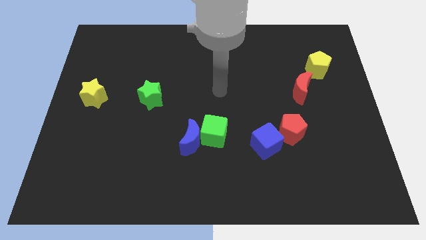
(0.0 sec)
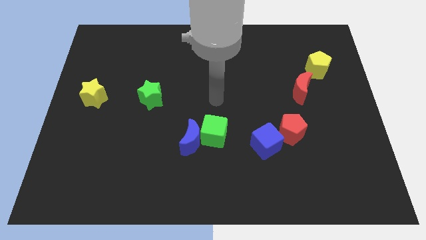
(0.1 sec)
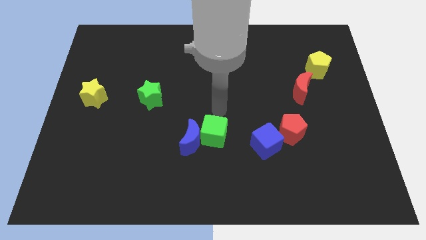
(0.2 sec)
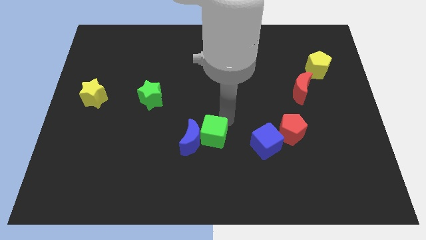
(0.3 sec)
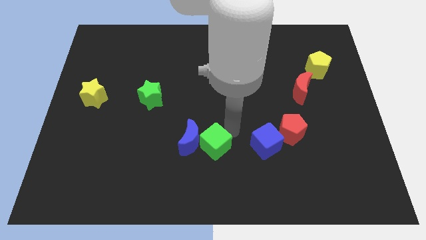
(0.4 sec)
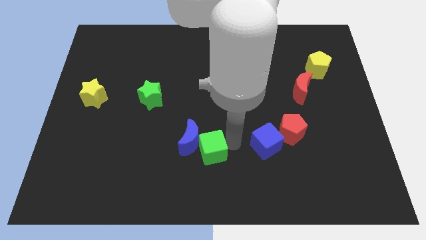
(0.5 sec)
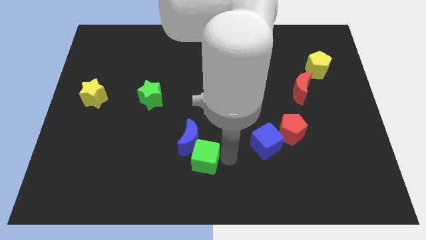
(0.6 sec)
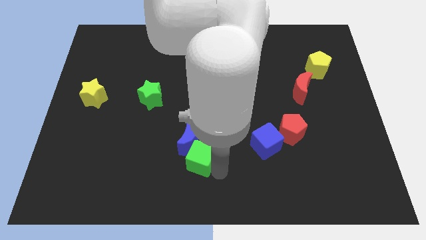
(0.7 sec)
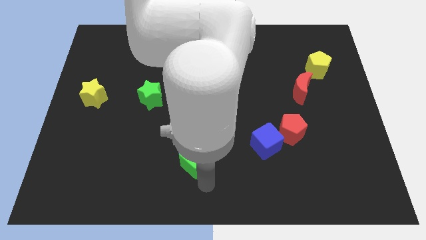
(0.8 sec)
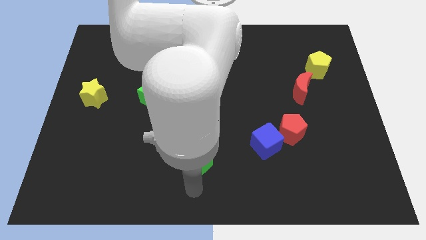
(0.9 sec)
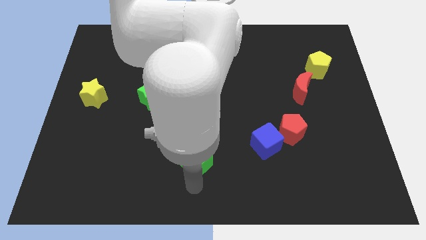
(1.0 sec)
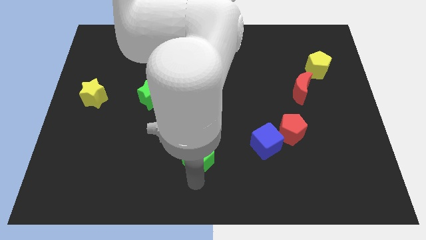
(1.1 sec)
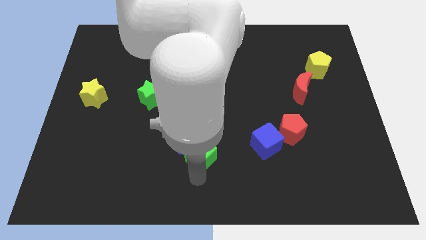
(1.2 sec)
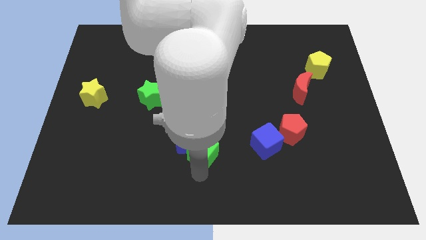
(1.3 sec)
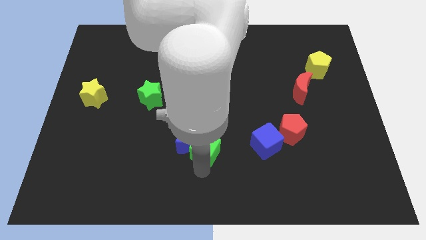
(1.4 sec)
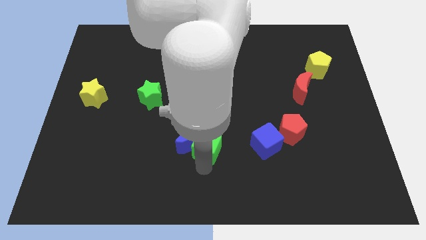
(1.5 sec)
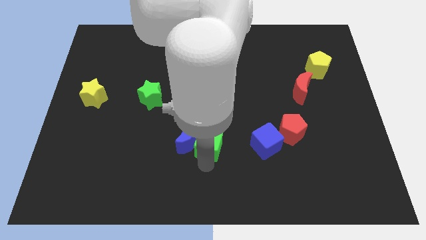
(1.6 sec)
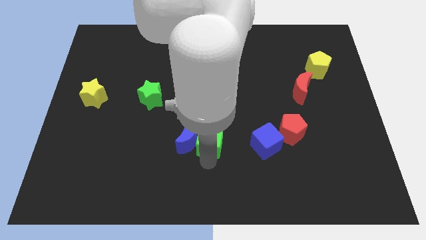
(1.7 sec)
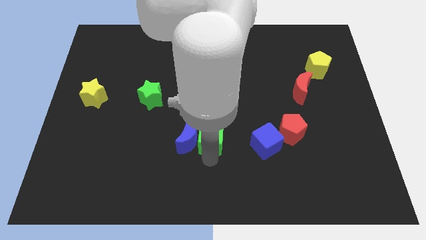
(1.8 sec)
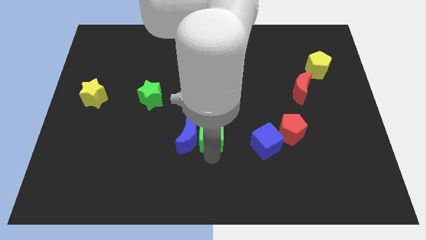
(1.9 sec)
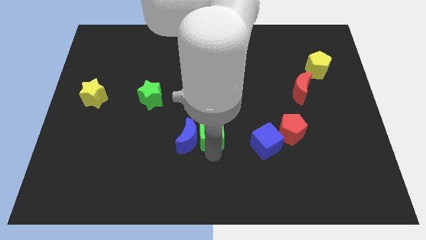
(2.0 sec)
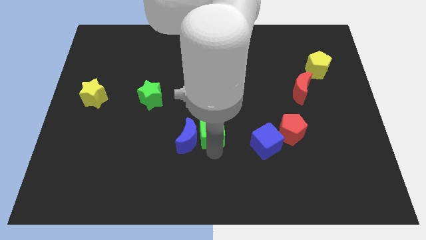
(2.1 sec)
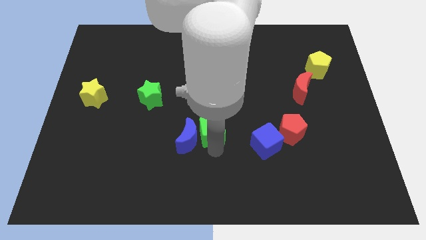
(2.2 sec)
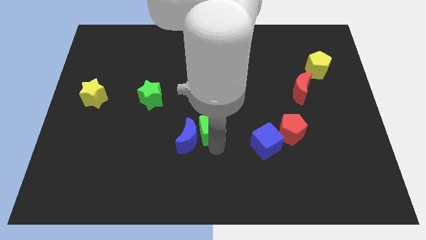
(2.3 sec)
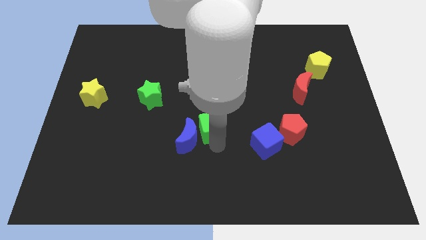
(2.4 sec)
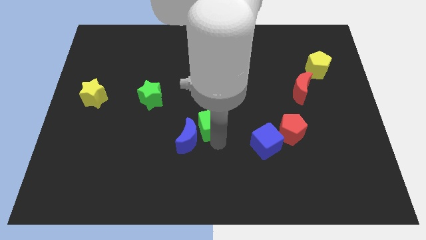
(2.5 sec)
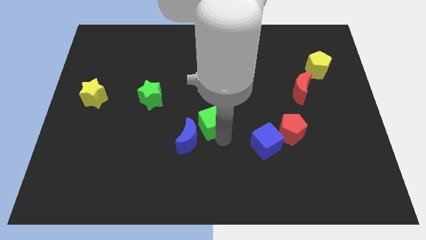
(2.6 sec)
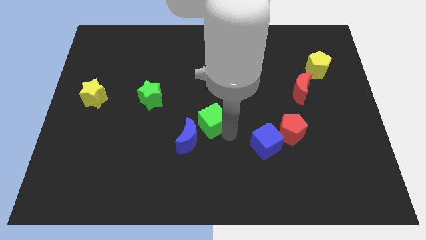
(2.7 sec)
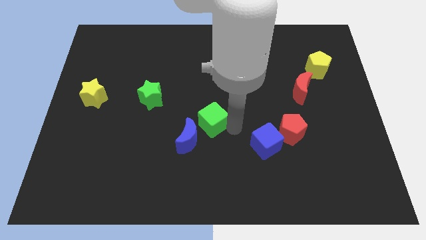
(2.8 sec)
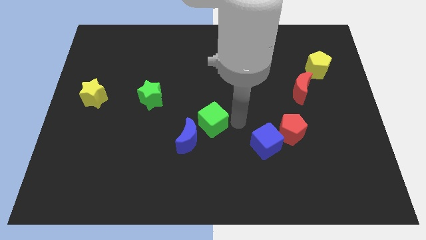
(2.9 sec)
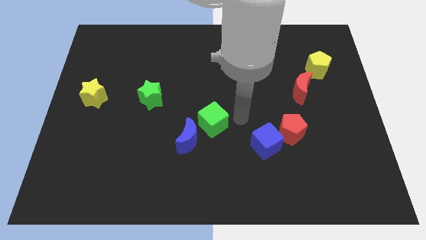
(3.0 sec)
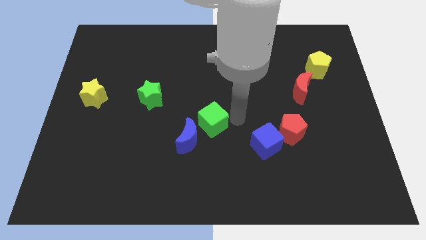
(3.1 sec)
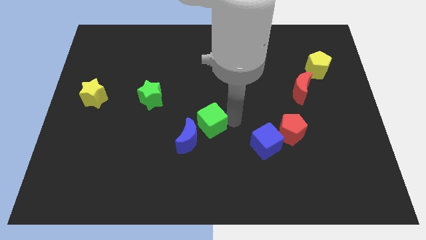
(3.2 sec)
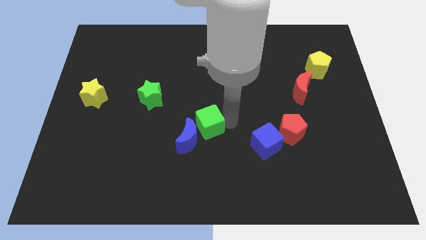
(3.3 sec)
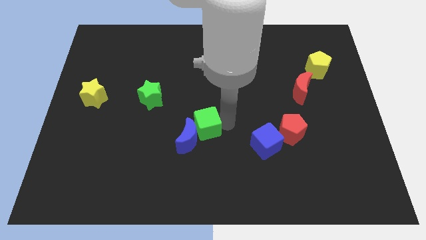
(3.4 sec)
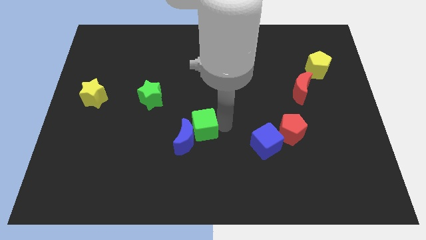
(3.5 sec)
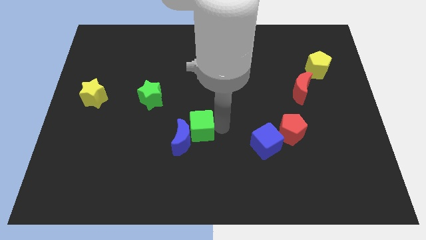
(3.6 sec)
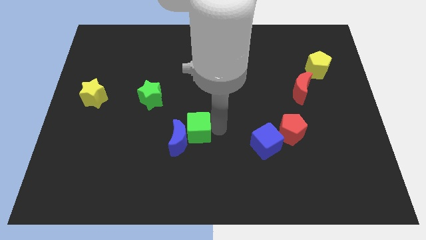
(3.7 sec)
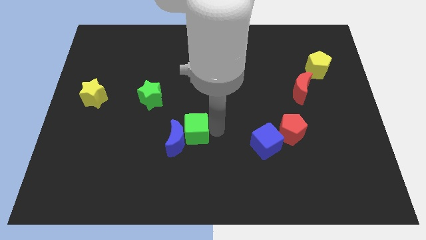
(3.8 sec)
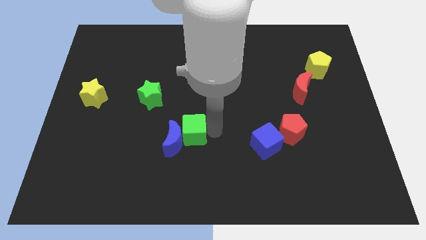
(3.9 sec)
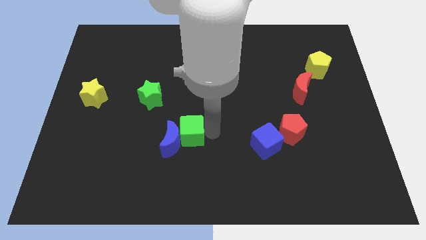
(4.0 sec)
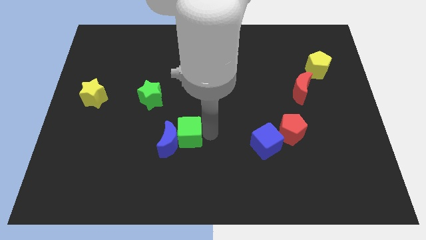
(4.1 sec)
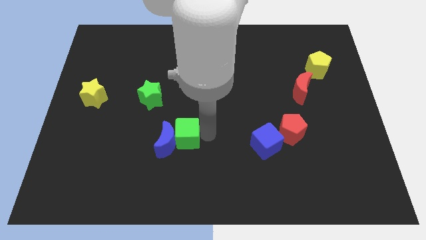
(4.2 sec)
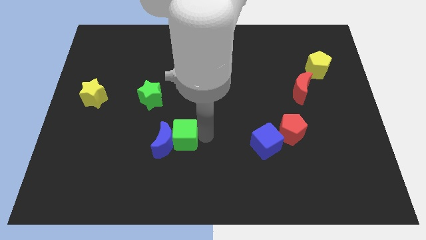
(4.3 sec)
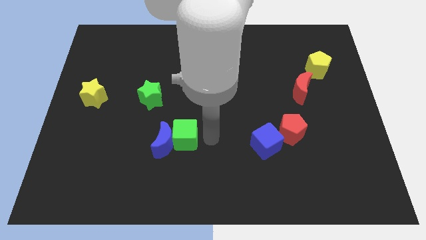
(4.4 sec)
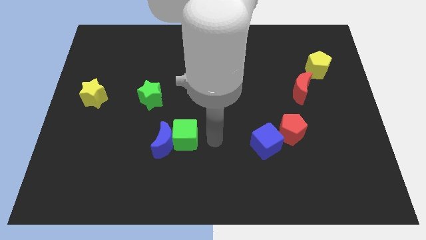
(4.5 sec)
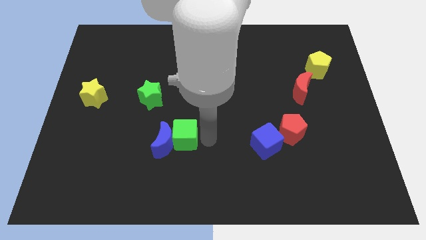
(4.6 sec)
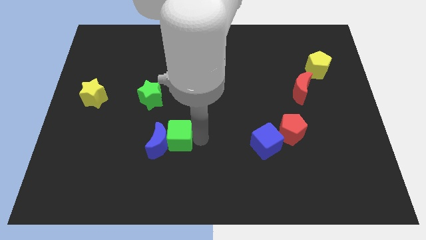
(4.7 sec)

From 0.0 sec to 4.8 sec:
move the green cube to the left a little

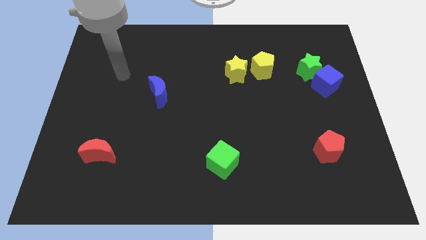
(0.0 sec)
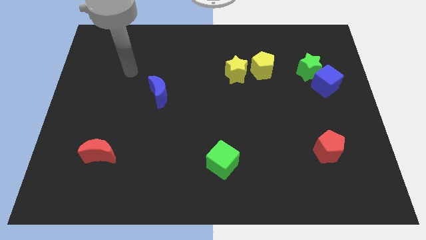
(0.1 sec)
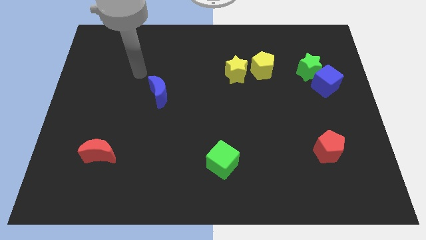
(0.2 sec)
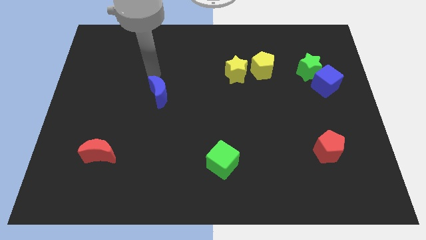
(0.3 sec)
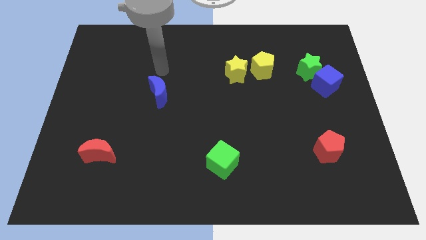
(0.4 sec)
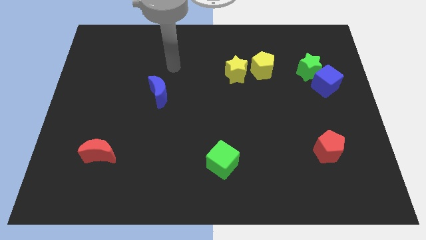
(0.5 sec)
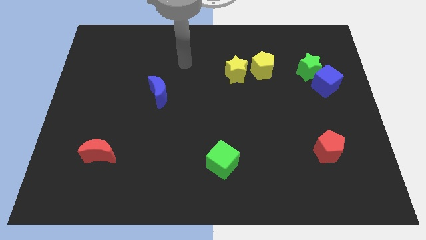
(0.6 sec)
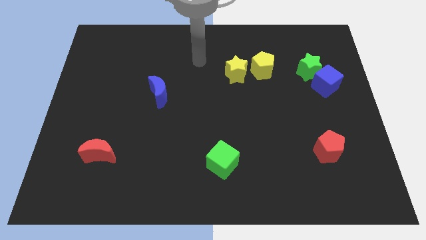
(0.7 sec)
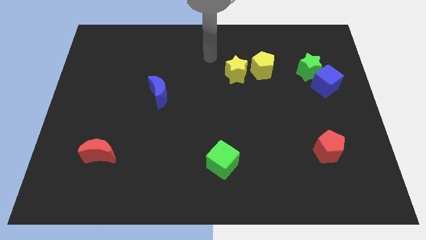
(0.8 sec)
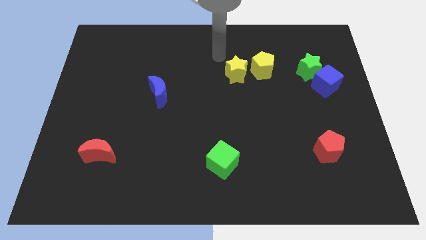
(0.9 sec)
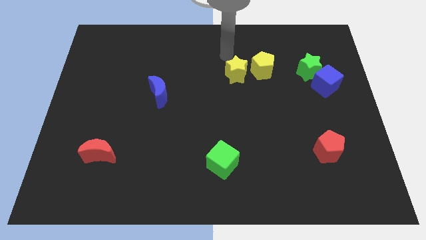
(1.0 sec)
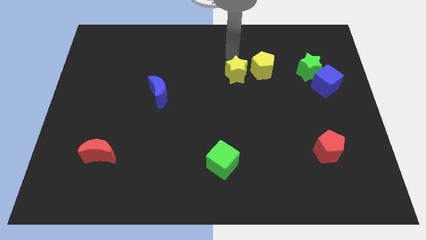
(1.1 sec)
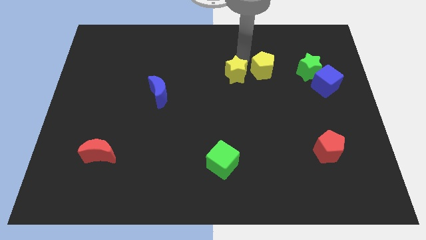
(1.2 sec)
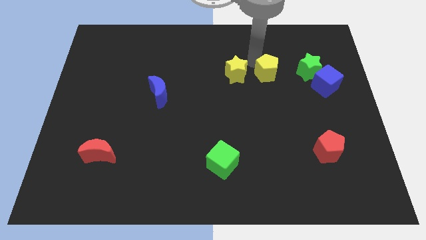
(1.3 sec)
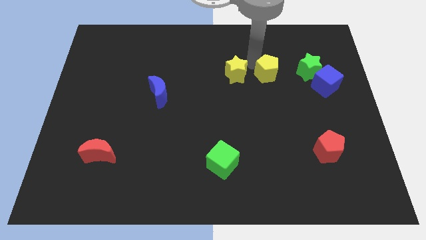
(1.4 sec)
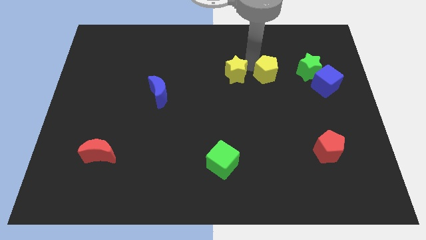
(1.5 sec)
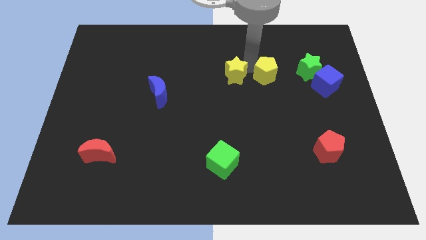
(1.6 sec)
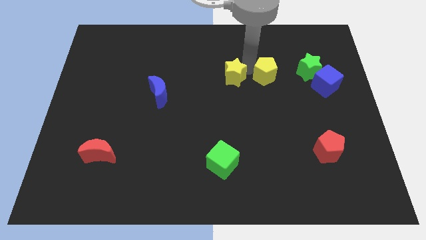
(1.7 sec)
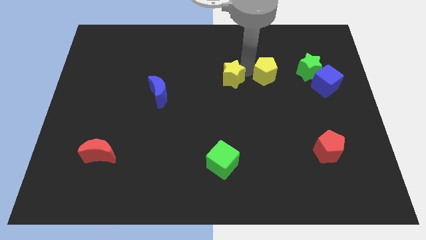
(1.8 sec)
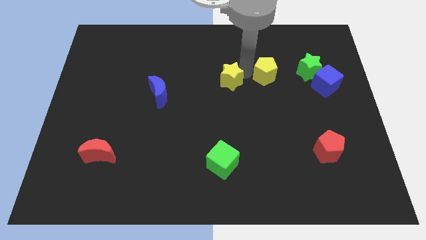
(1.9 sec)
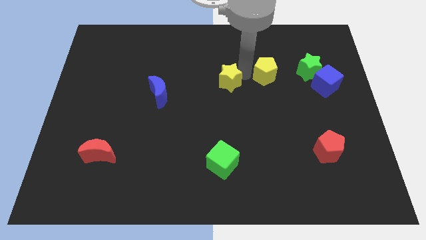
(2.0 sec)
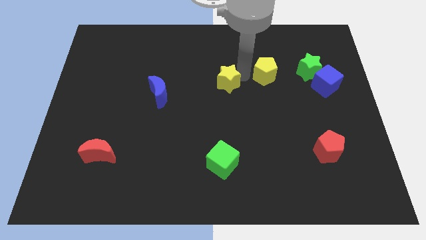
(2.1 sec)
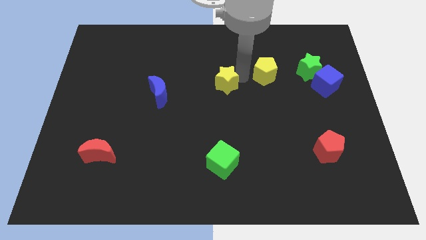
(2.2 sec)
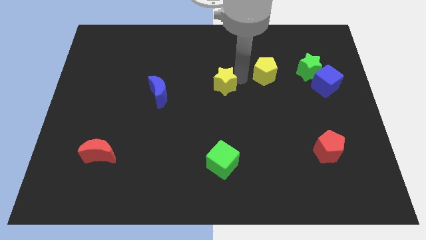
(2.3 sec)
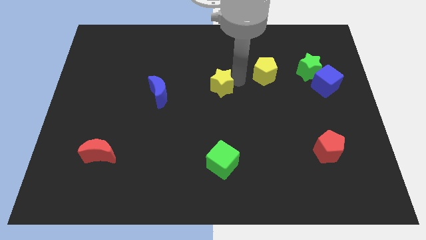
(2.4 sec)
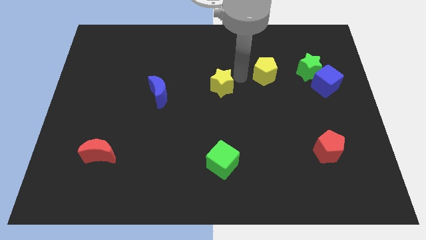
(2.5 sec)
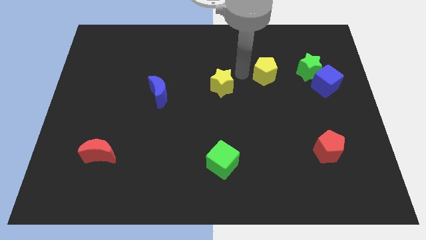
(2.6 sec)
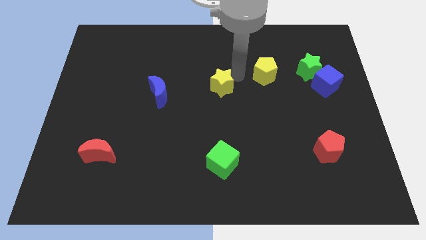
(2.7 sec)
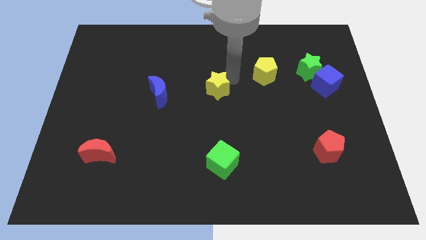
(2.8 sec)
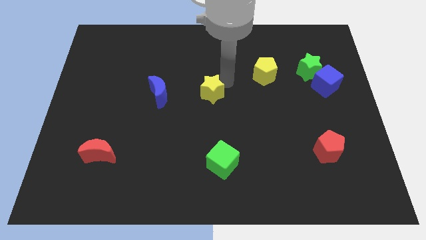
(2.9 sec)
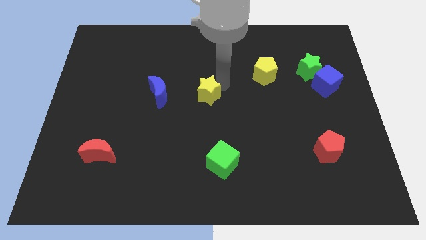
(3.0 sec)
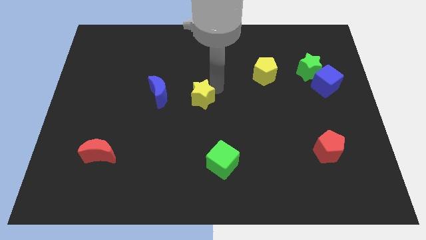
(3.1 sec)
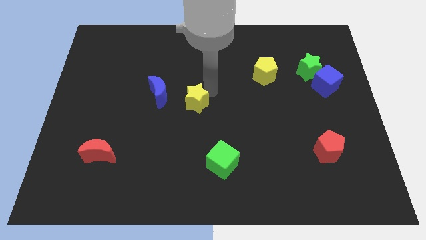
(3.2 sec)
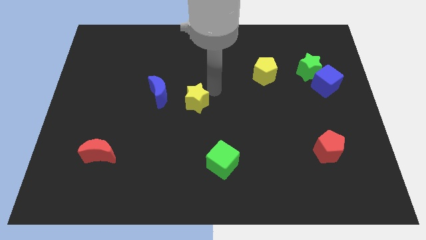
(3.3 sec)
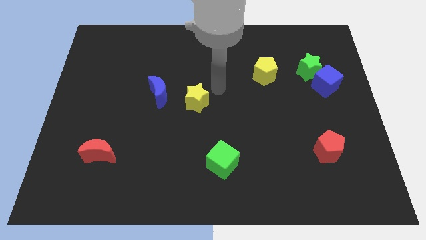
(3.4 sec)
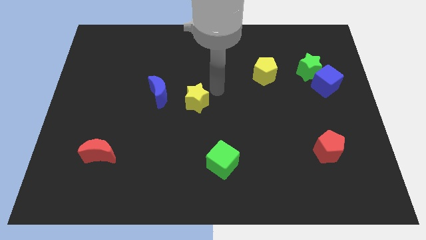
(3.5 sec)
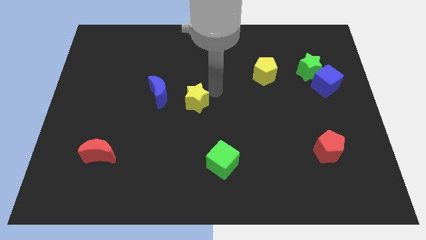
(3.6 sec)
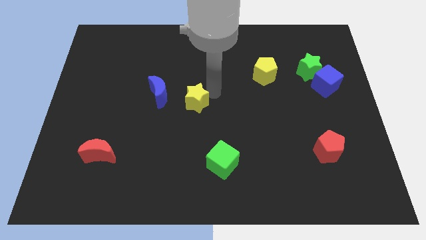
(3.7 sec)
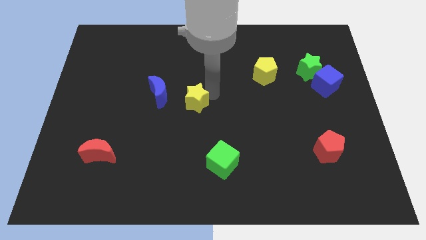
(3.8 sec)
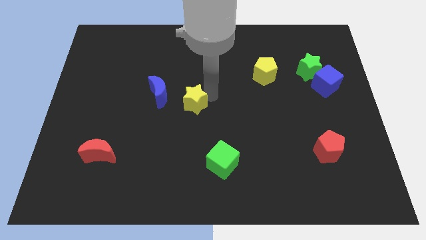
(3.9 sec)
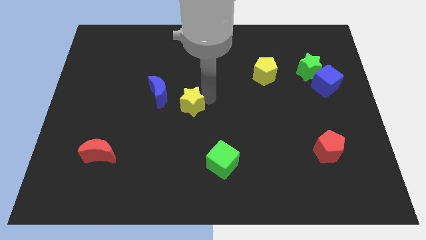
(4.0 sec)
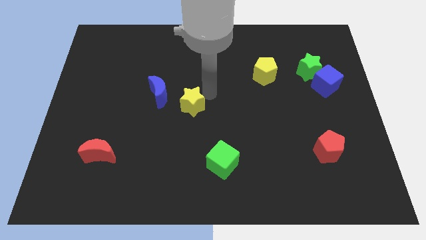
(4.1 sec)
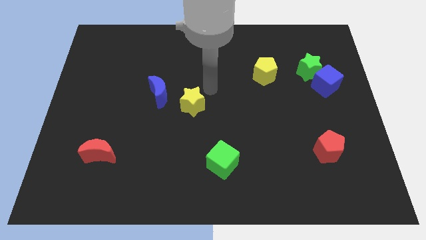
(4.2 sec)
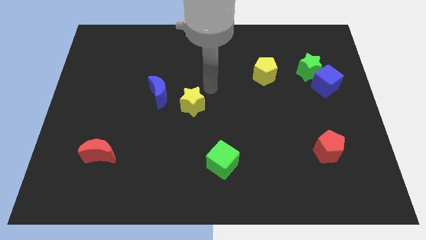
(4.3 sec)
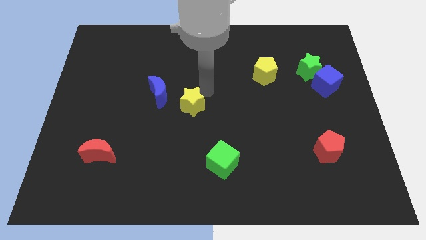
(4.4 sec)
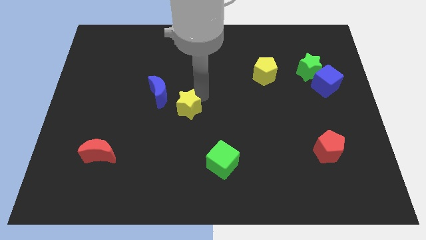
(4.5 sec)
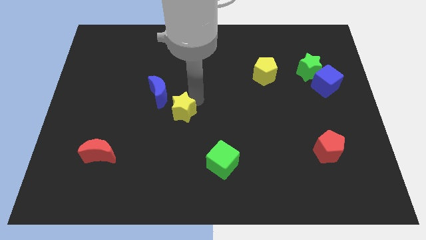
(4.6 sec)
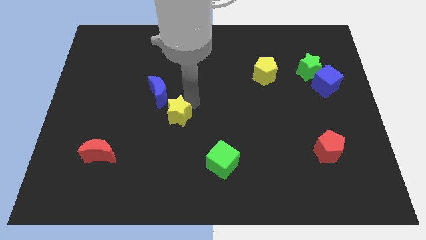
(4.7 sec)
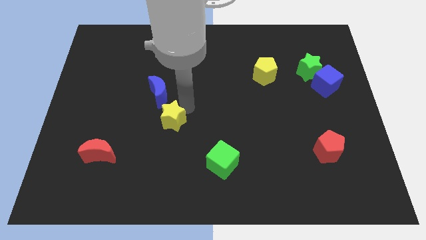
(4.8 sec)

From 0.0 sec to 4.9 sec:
push the yellow star down and then to the left
